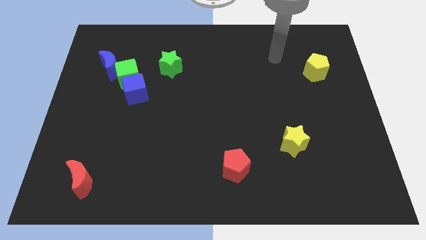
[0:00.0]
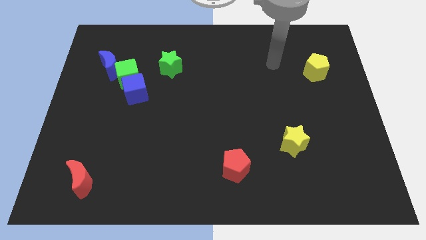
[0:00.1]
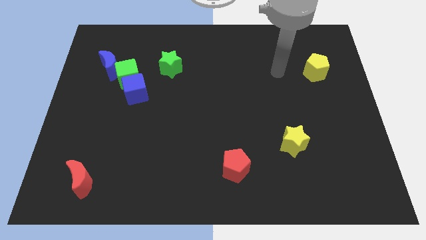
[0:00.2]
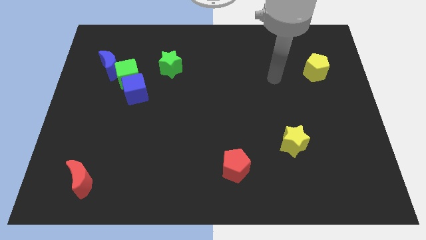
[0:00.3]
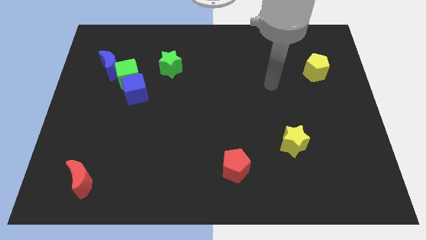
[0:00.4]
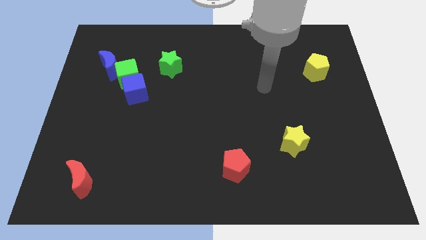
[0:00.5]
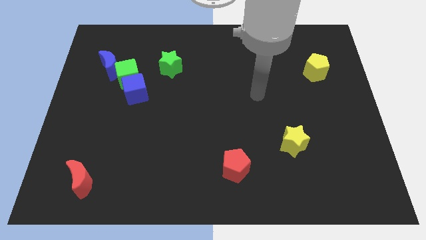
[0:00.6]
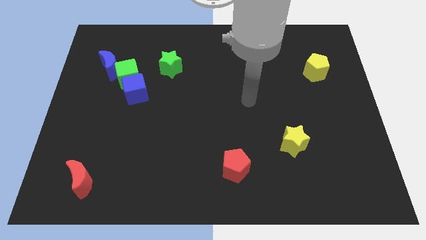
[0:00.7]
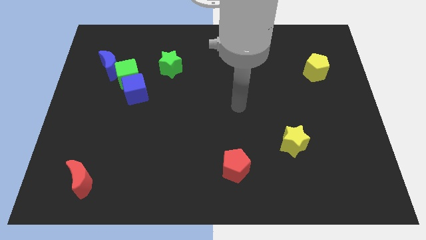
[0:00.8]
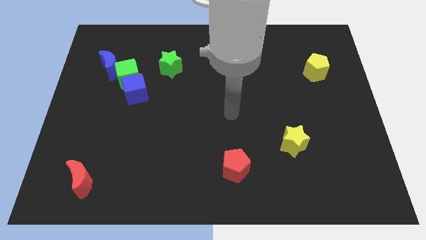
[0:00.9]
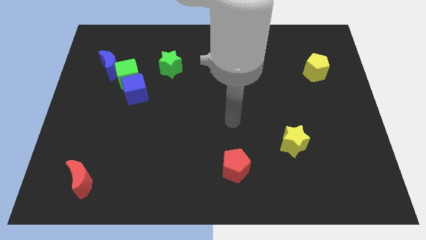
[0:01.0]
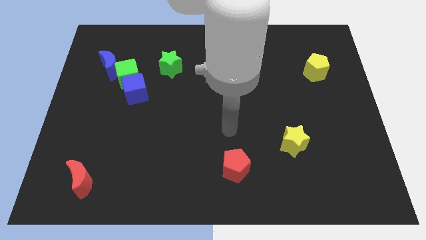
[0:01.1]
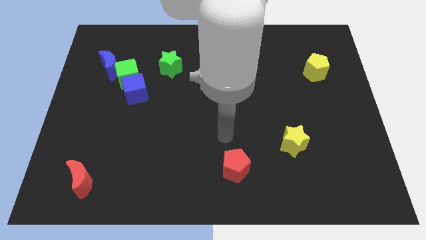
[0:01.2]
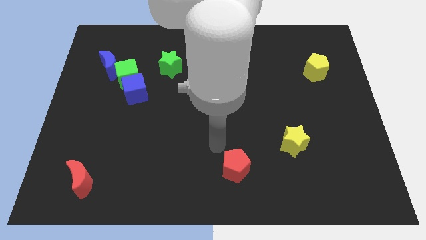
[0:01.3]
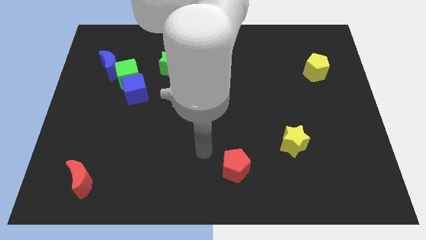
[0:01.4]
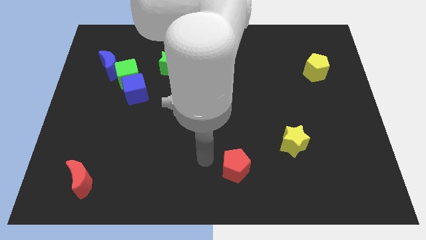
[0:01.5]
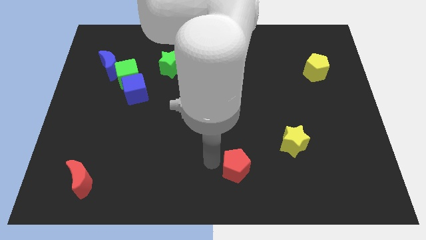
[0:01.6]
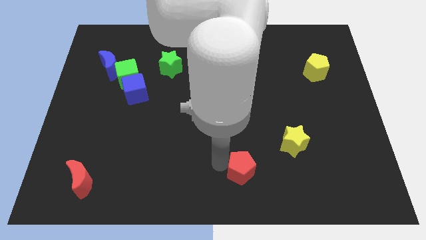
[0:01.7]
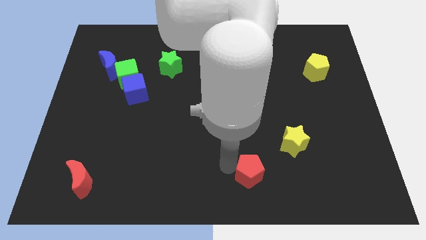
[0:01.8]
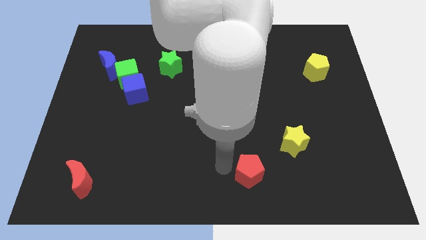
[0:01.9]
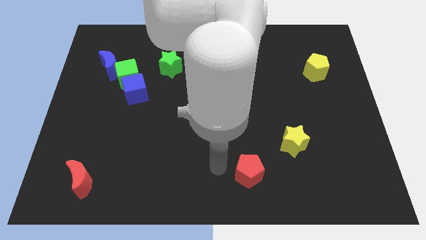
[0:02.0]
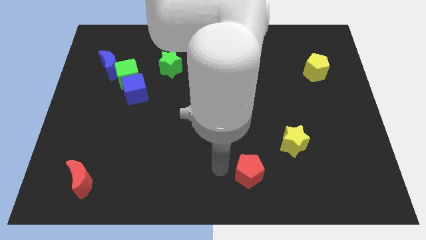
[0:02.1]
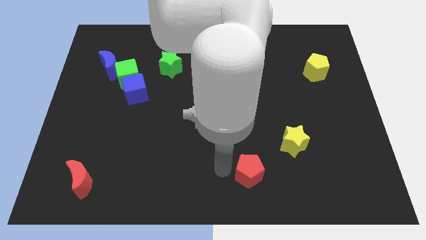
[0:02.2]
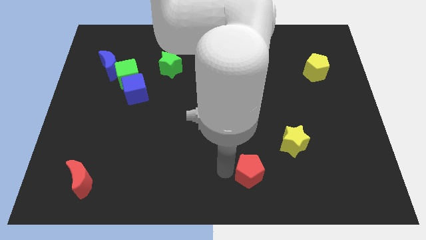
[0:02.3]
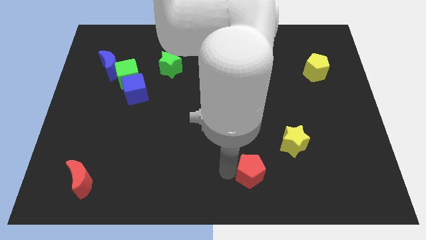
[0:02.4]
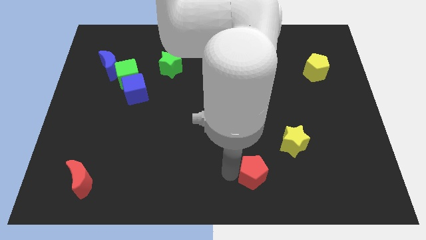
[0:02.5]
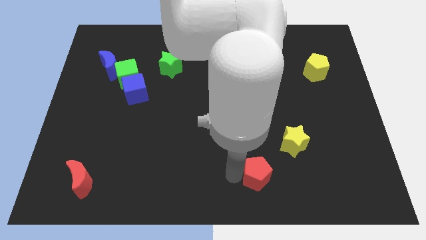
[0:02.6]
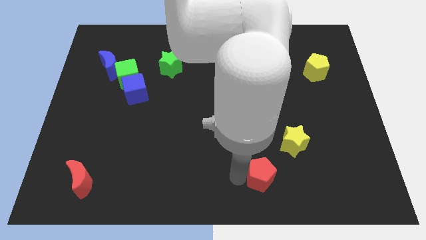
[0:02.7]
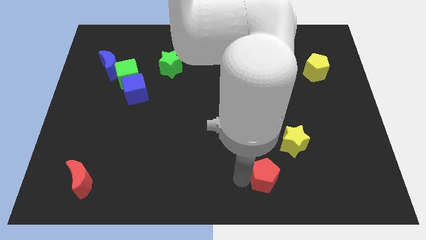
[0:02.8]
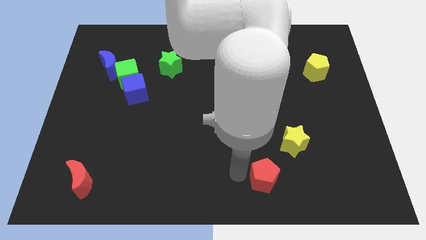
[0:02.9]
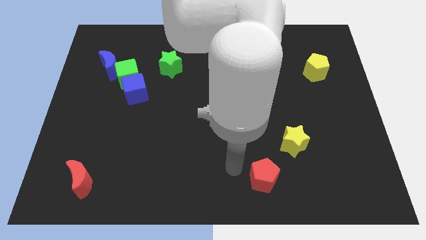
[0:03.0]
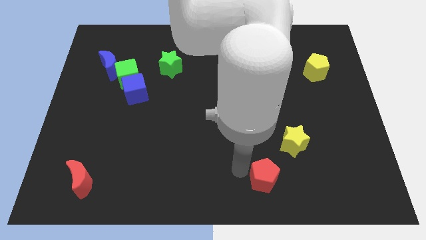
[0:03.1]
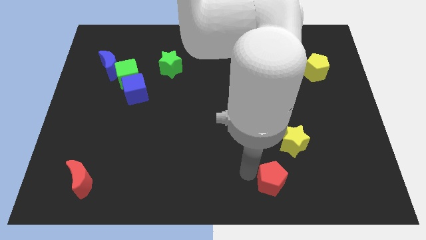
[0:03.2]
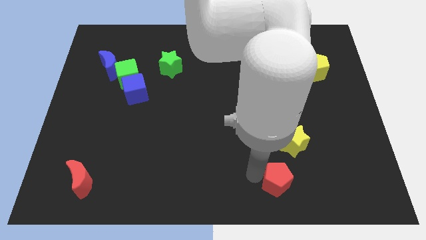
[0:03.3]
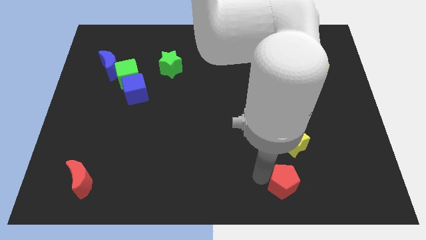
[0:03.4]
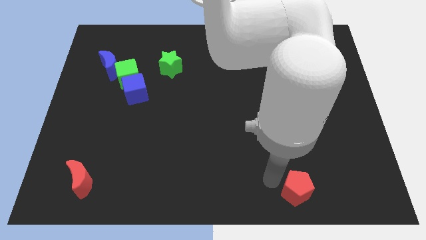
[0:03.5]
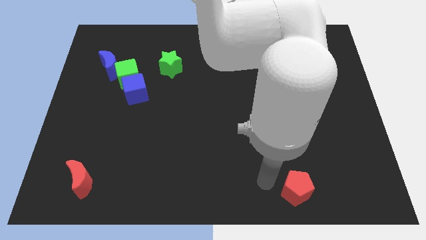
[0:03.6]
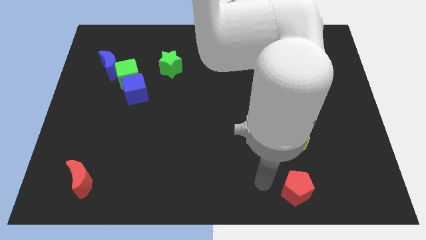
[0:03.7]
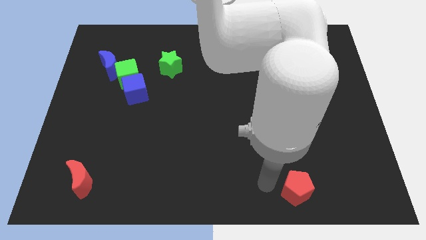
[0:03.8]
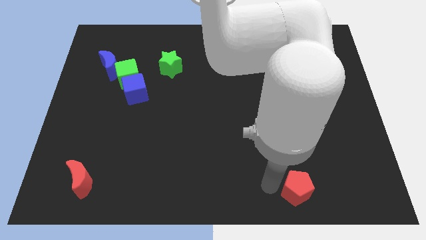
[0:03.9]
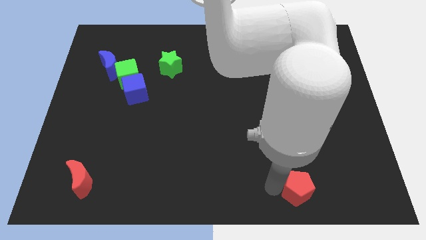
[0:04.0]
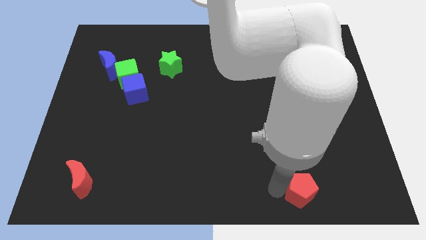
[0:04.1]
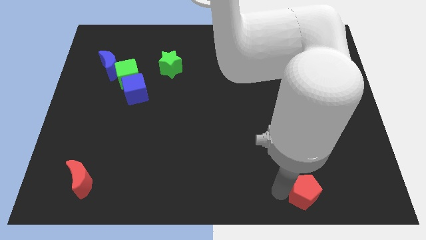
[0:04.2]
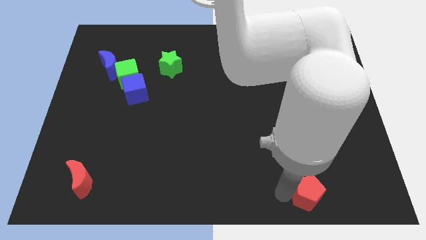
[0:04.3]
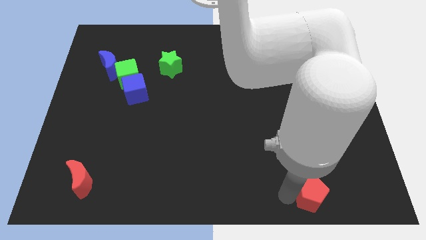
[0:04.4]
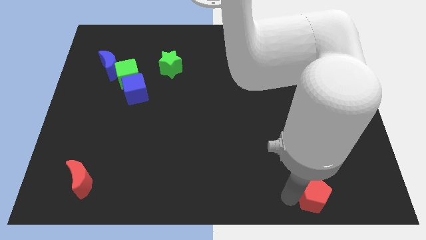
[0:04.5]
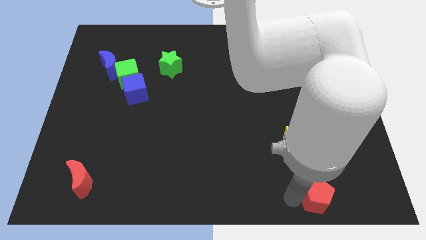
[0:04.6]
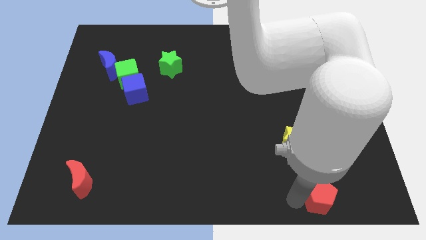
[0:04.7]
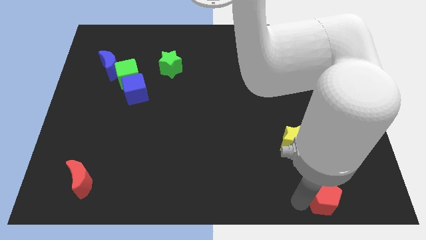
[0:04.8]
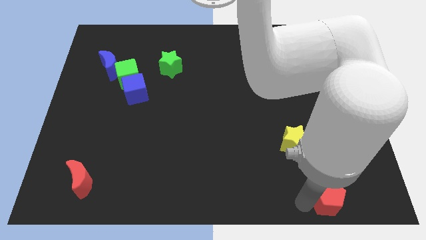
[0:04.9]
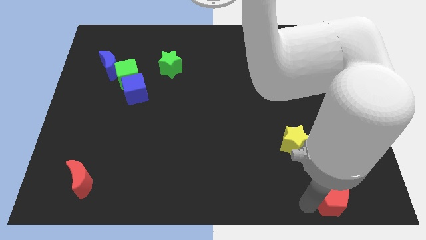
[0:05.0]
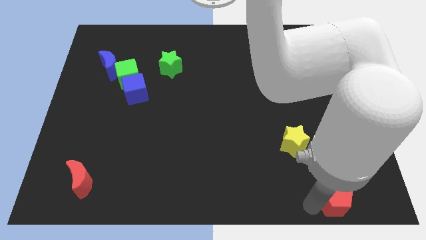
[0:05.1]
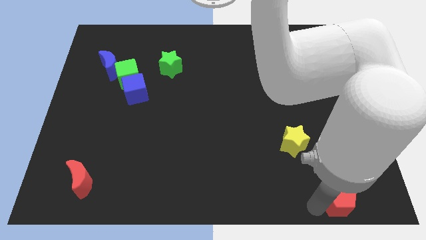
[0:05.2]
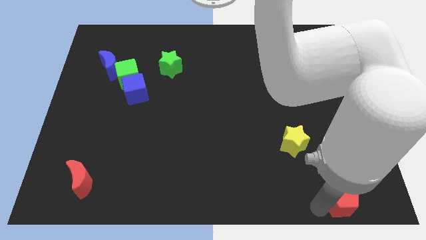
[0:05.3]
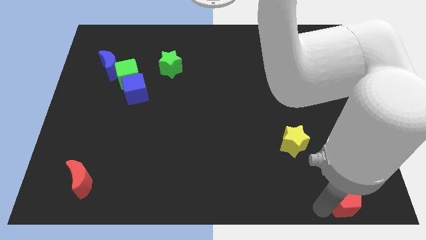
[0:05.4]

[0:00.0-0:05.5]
slide the red pentagon to the bottom right

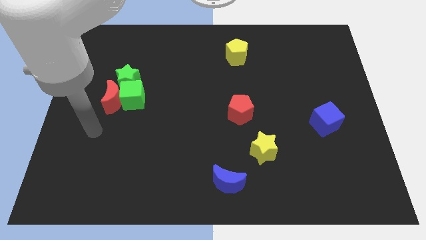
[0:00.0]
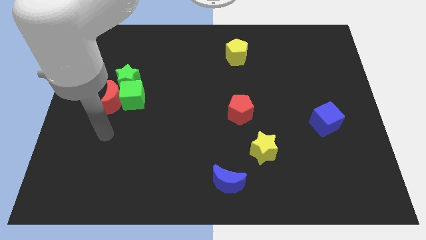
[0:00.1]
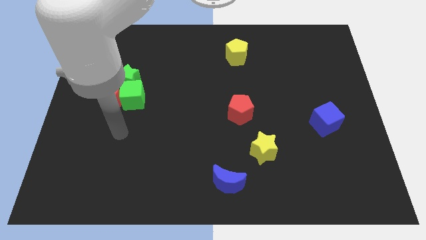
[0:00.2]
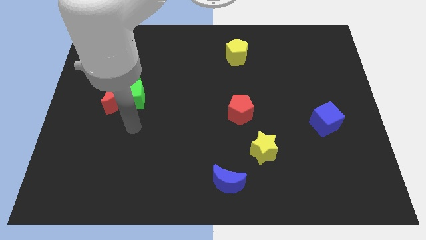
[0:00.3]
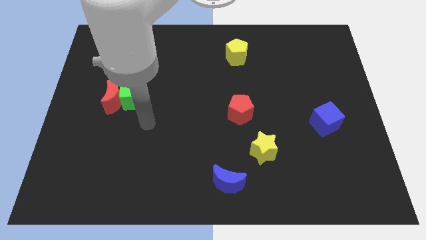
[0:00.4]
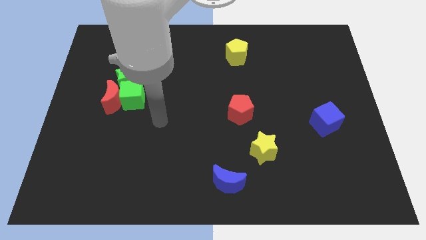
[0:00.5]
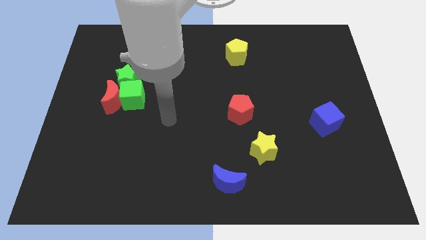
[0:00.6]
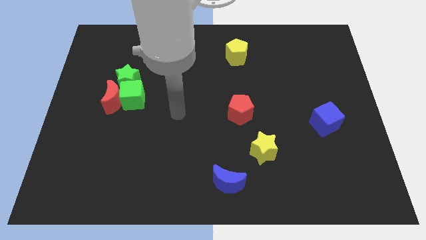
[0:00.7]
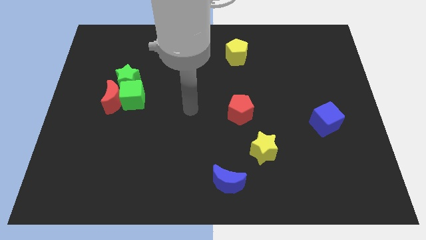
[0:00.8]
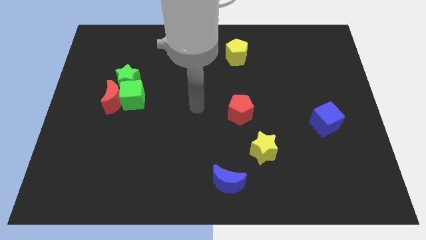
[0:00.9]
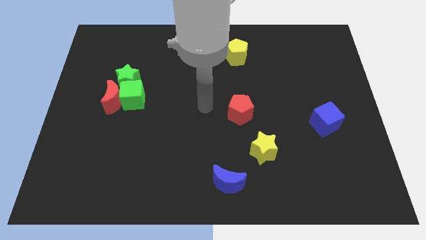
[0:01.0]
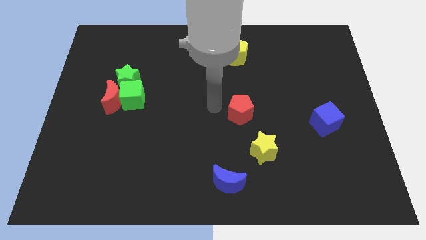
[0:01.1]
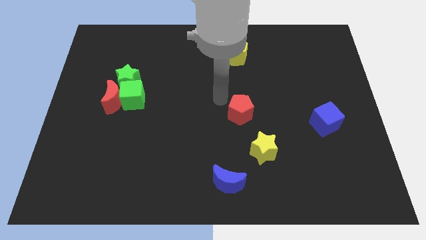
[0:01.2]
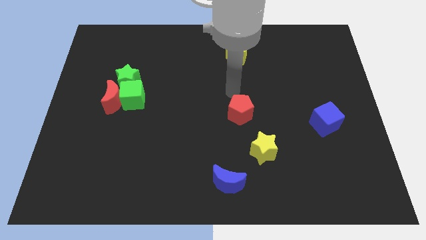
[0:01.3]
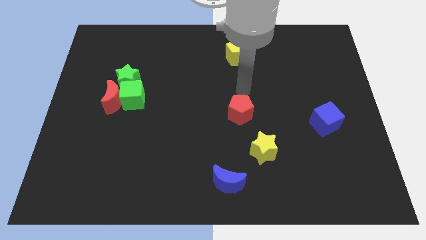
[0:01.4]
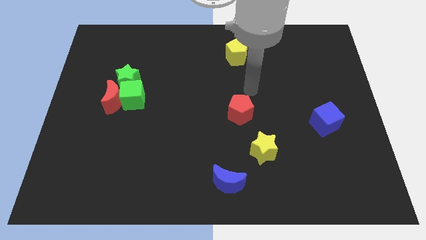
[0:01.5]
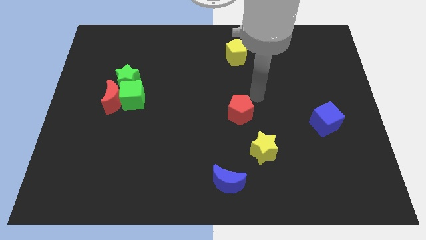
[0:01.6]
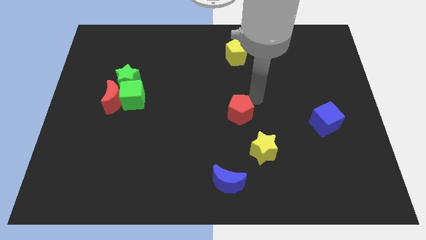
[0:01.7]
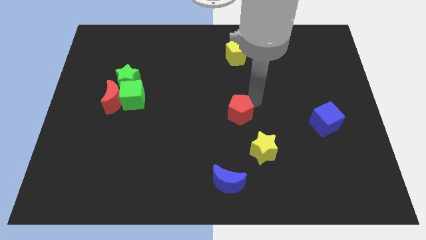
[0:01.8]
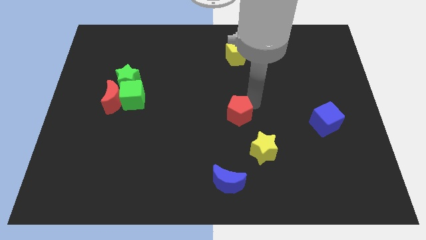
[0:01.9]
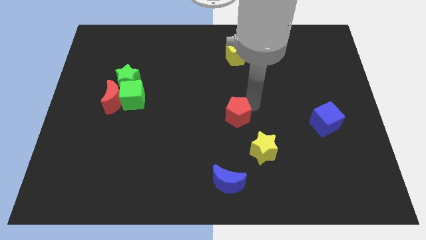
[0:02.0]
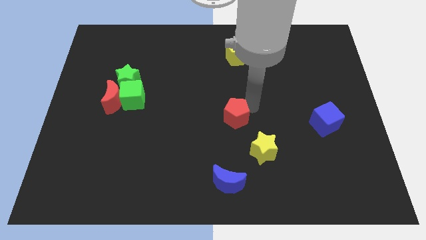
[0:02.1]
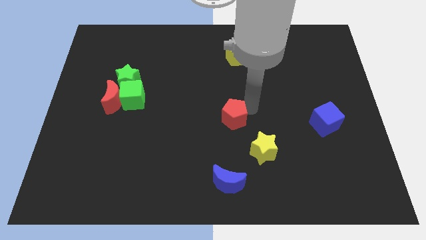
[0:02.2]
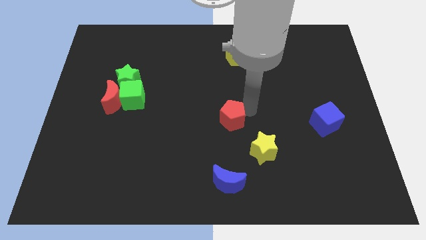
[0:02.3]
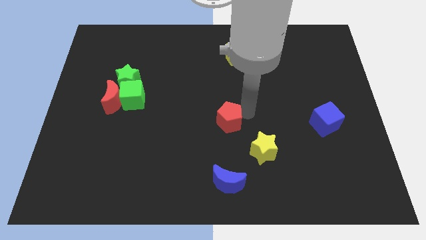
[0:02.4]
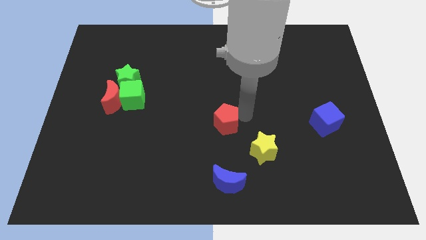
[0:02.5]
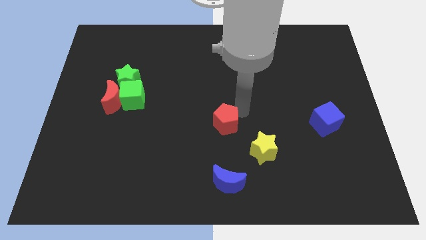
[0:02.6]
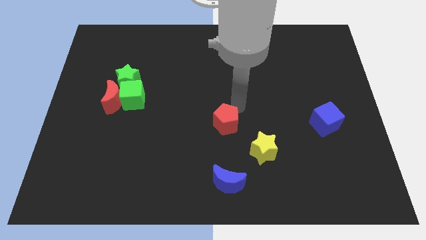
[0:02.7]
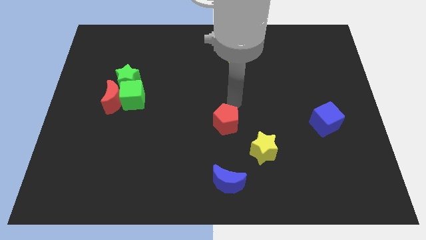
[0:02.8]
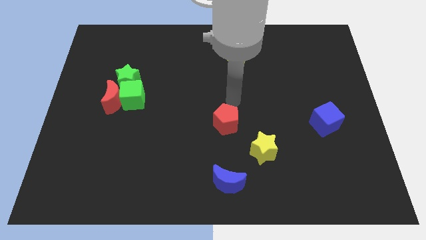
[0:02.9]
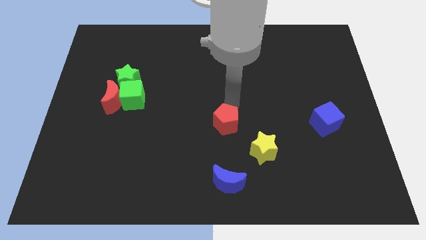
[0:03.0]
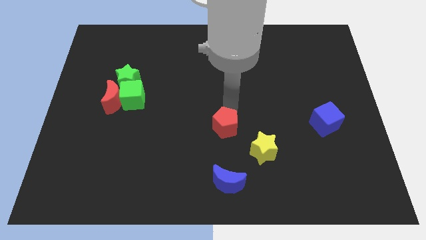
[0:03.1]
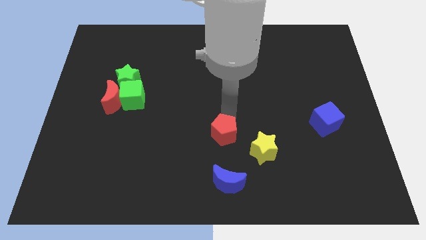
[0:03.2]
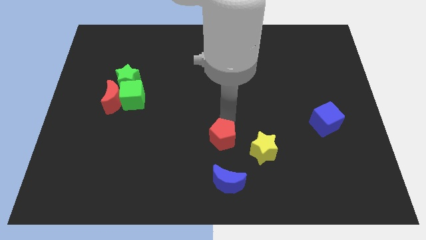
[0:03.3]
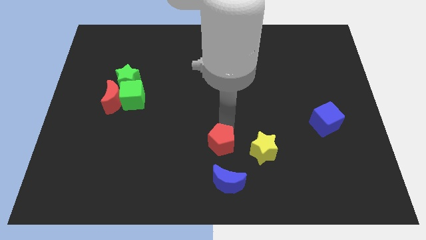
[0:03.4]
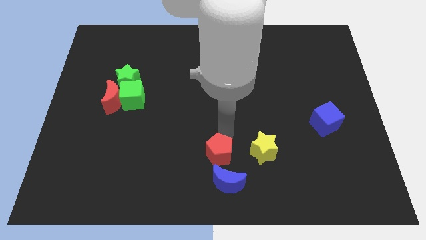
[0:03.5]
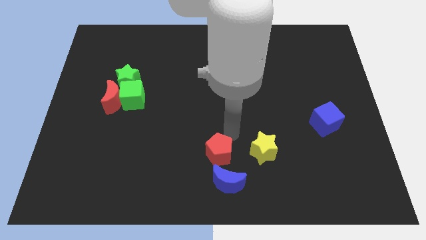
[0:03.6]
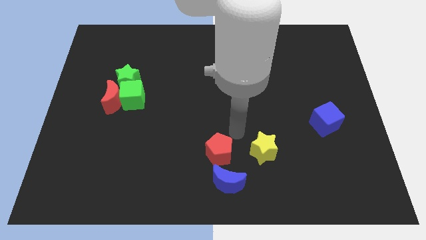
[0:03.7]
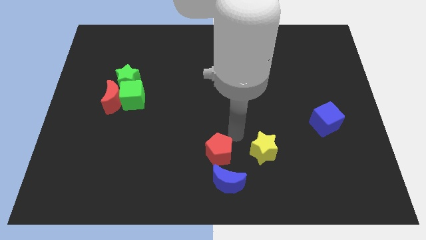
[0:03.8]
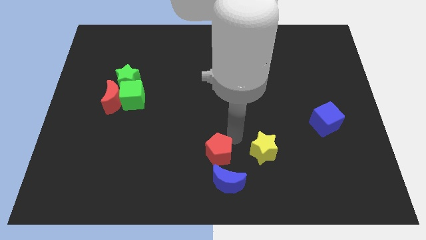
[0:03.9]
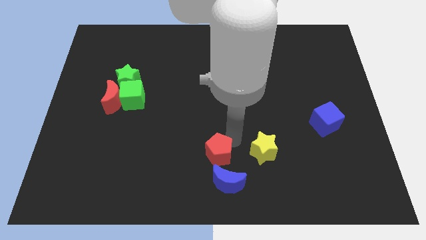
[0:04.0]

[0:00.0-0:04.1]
move the red pentagon to the bottom side
